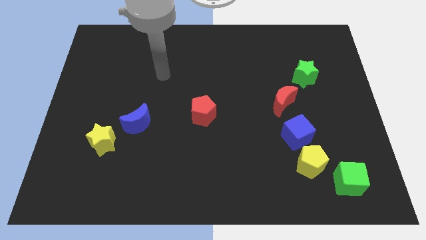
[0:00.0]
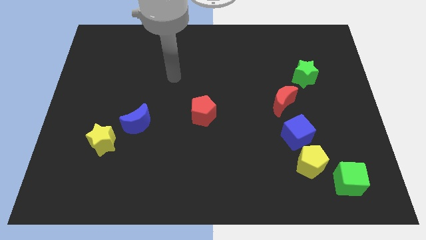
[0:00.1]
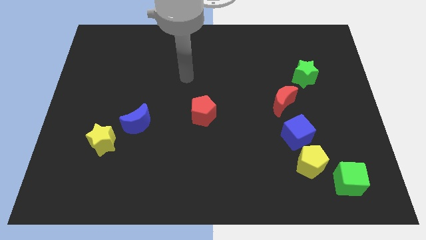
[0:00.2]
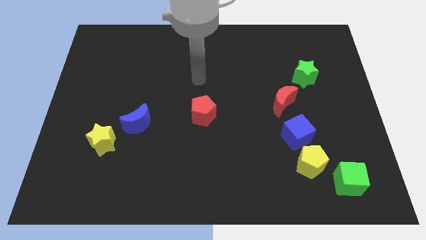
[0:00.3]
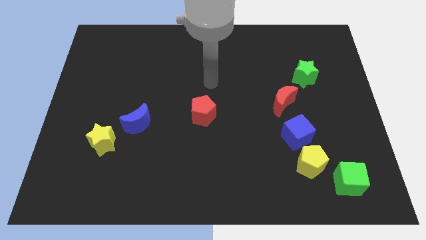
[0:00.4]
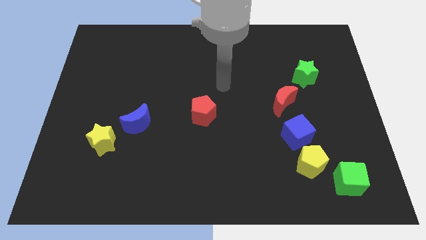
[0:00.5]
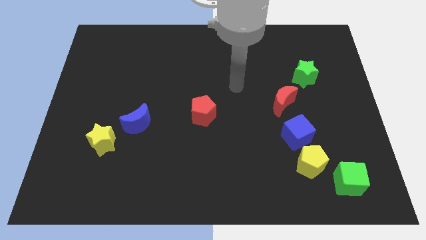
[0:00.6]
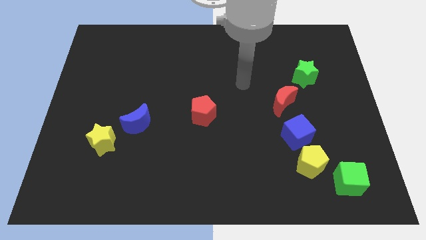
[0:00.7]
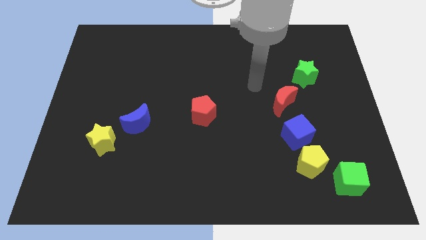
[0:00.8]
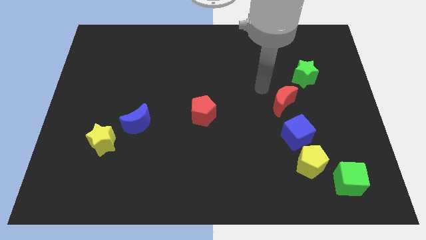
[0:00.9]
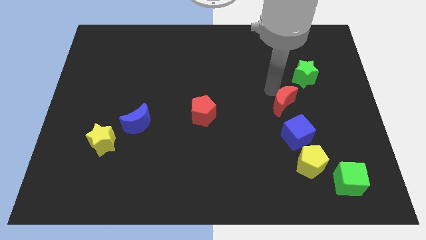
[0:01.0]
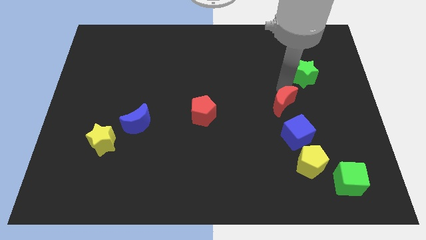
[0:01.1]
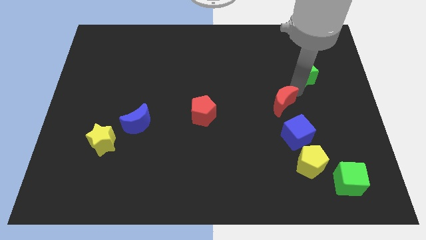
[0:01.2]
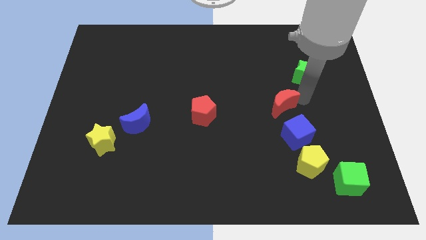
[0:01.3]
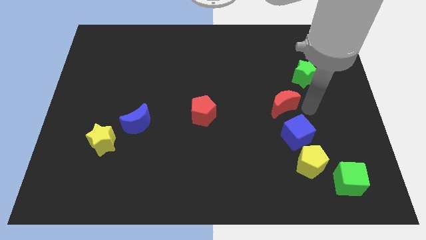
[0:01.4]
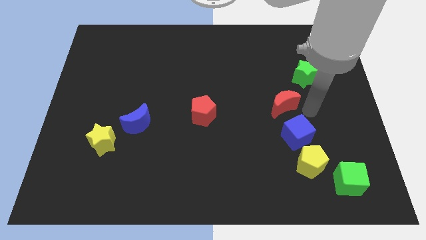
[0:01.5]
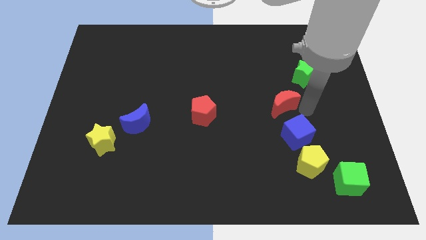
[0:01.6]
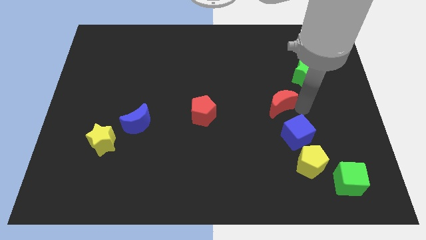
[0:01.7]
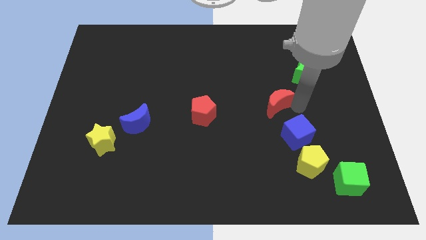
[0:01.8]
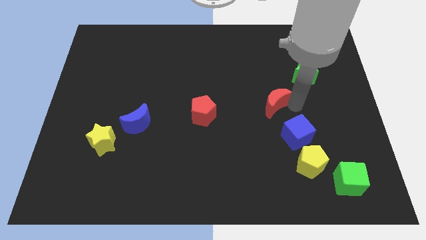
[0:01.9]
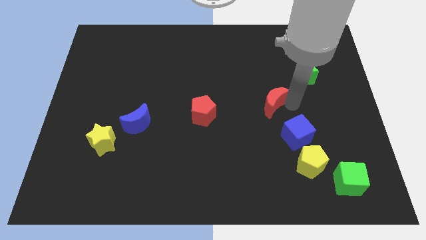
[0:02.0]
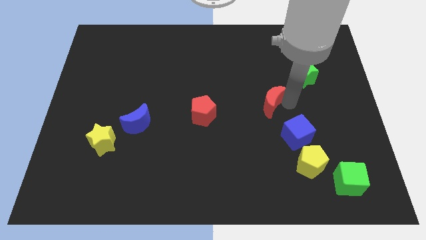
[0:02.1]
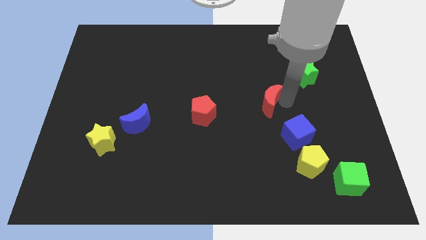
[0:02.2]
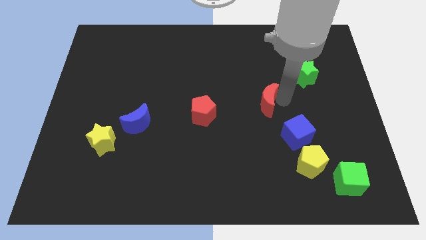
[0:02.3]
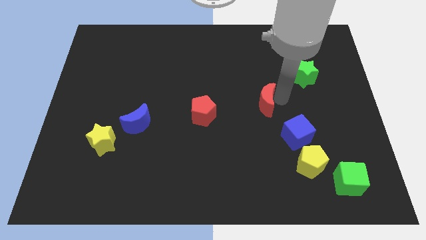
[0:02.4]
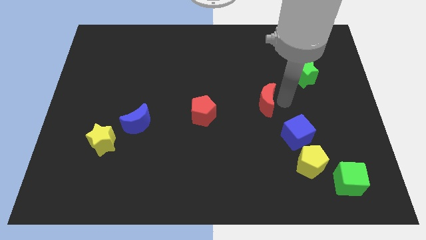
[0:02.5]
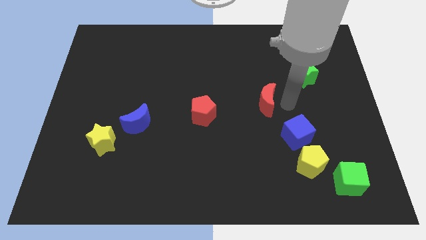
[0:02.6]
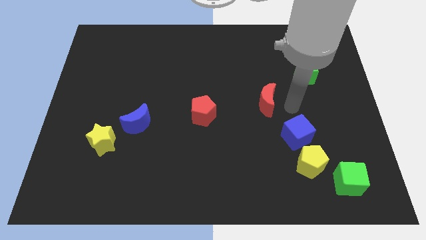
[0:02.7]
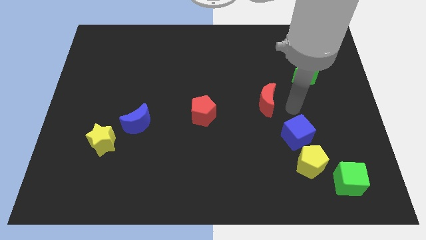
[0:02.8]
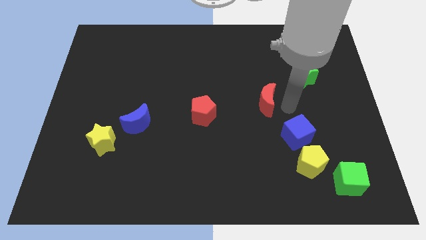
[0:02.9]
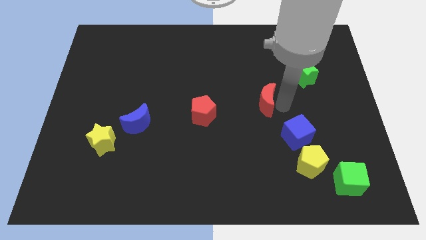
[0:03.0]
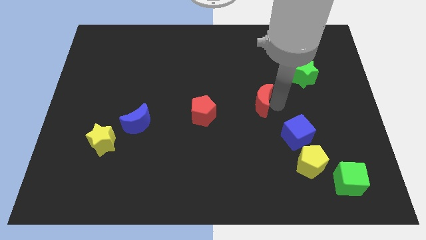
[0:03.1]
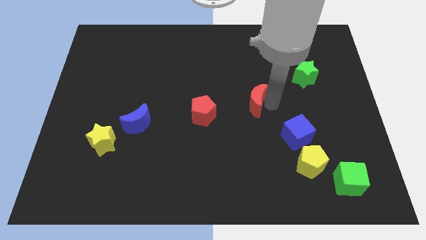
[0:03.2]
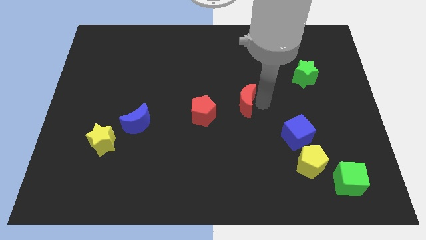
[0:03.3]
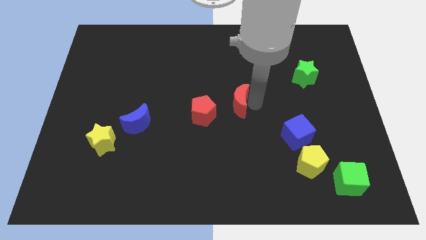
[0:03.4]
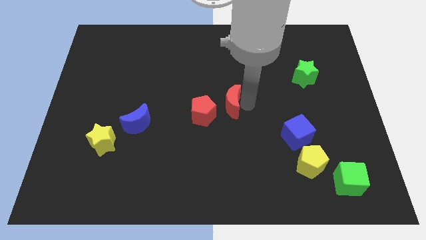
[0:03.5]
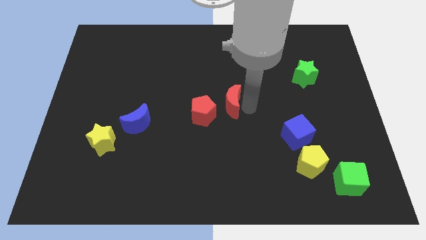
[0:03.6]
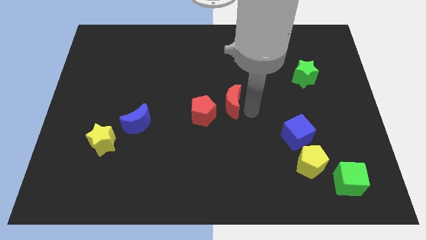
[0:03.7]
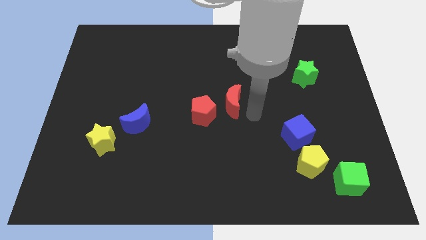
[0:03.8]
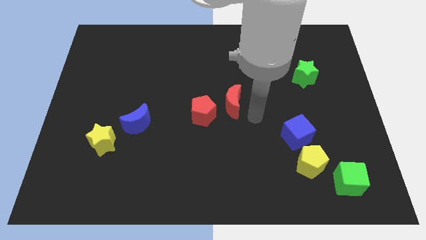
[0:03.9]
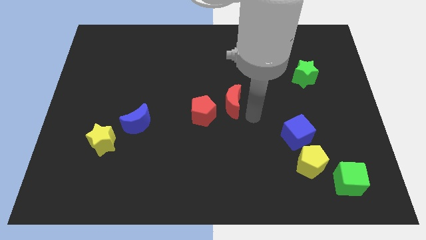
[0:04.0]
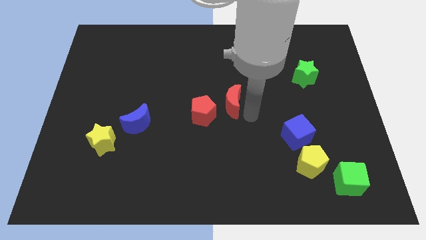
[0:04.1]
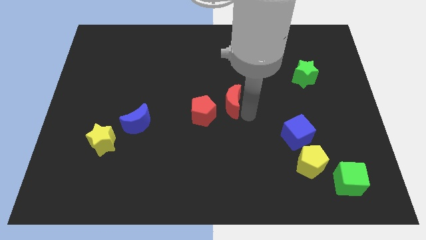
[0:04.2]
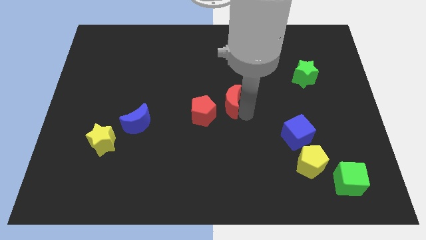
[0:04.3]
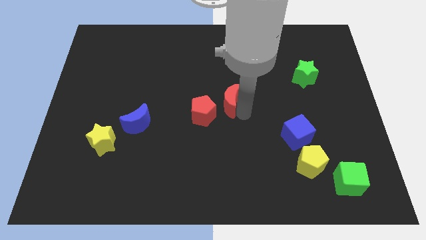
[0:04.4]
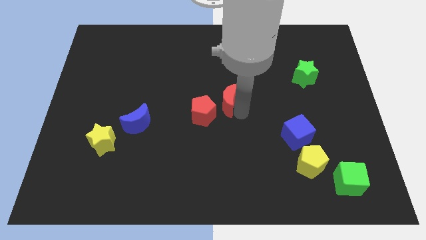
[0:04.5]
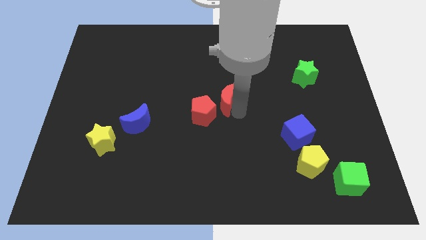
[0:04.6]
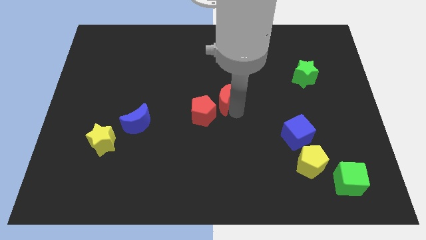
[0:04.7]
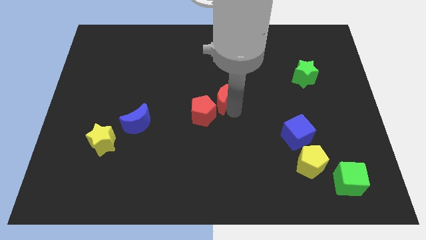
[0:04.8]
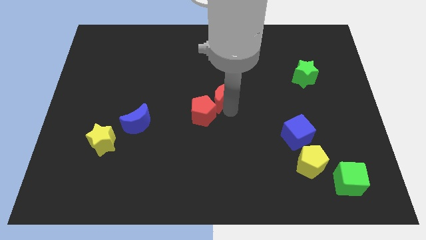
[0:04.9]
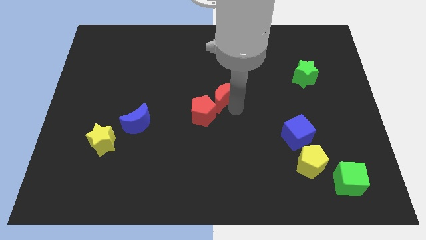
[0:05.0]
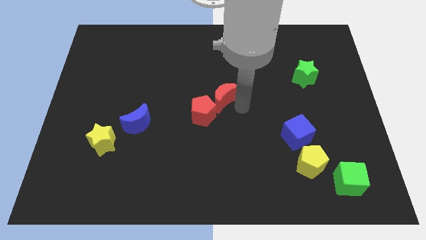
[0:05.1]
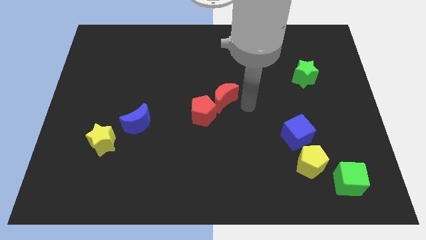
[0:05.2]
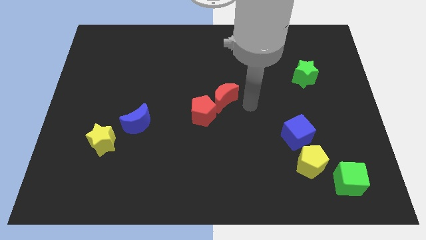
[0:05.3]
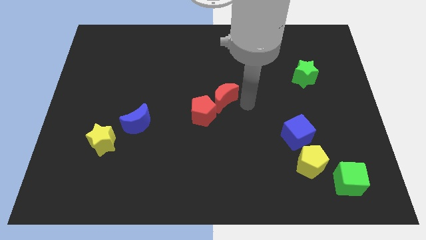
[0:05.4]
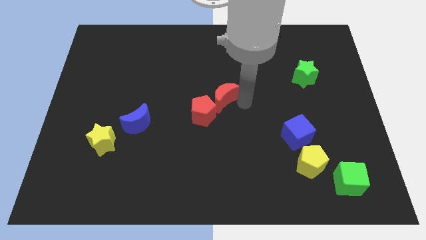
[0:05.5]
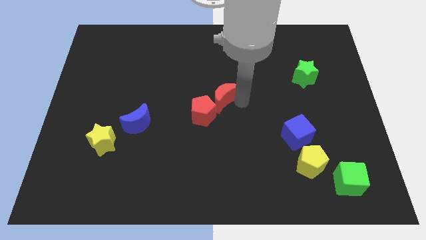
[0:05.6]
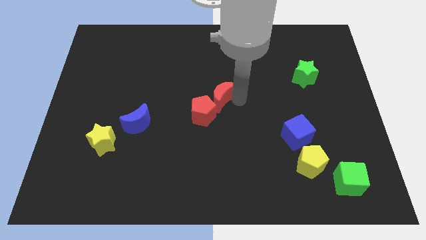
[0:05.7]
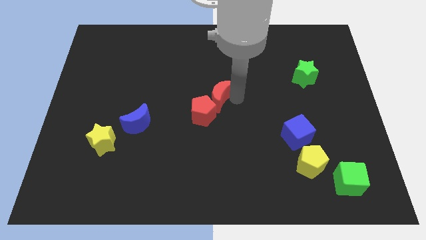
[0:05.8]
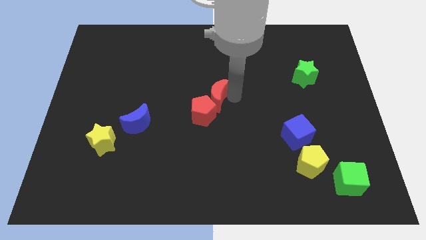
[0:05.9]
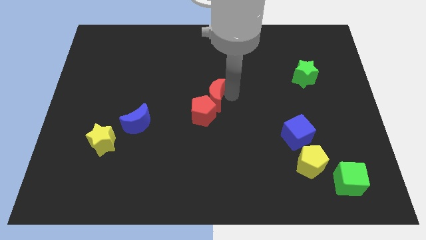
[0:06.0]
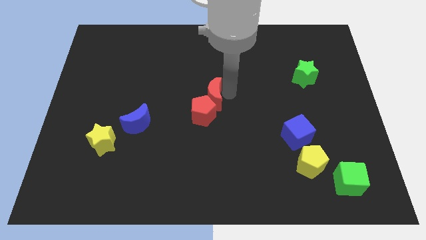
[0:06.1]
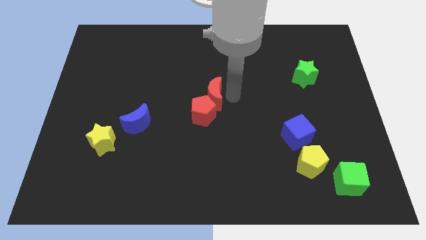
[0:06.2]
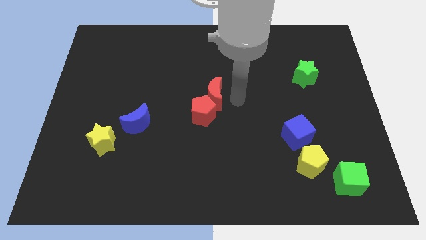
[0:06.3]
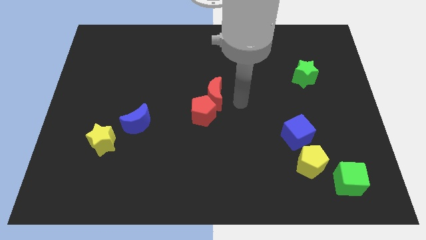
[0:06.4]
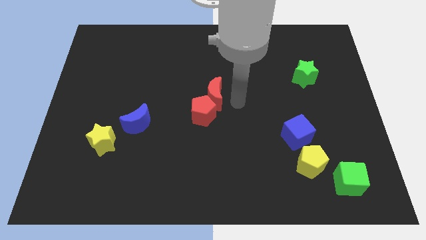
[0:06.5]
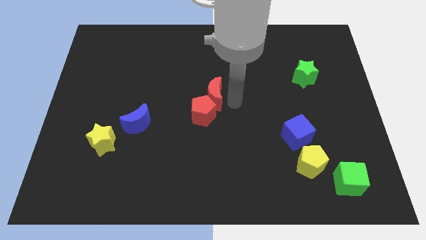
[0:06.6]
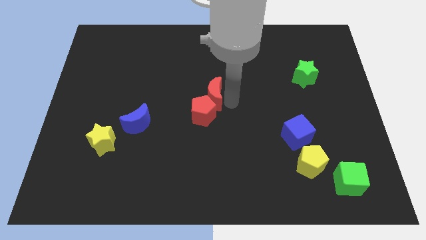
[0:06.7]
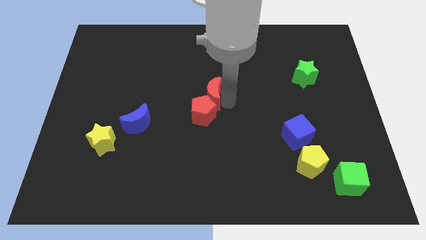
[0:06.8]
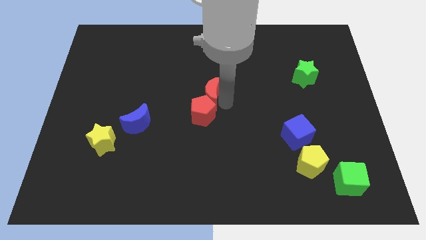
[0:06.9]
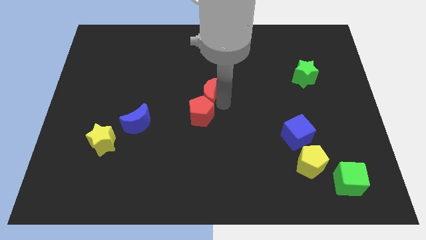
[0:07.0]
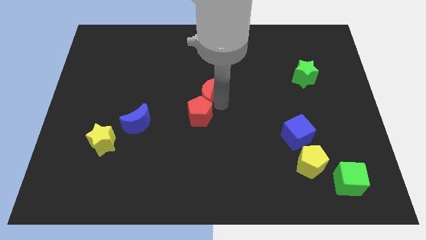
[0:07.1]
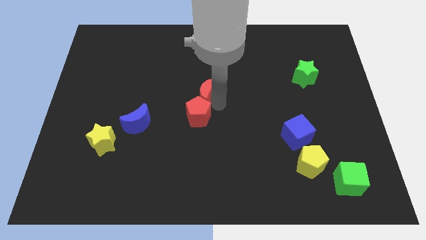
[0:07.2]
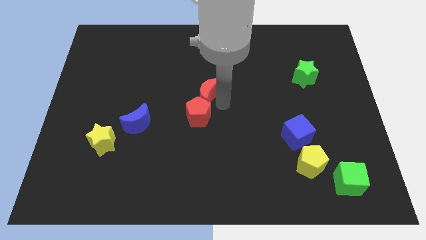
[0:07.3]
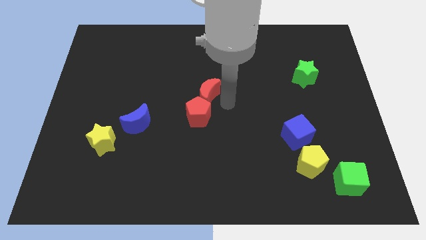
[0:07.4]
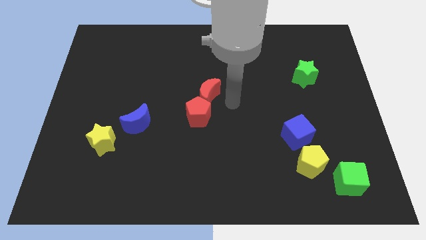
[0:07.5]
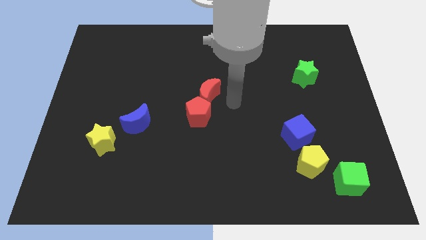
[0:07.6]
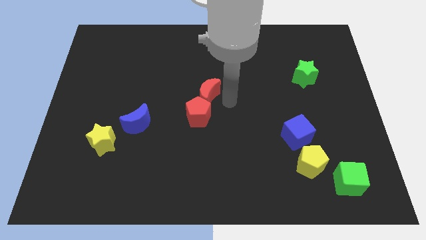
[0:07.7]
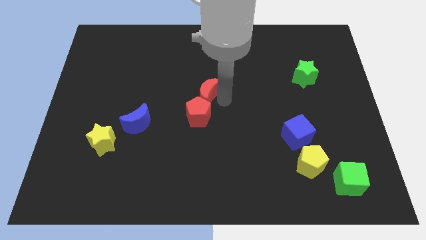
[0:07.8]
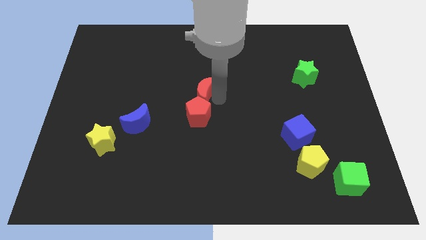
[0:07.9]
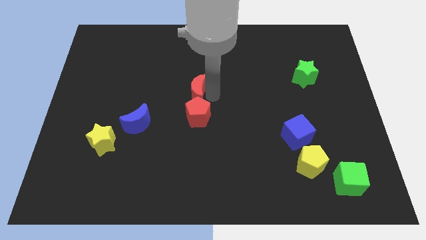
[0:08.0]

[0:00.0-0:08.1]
push the red moon left
